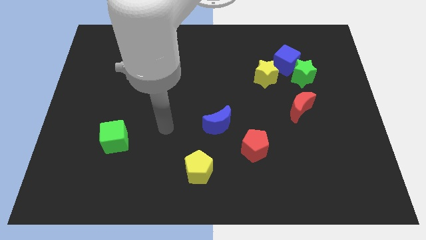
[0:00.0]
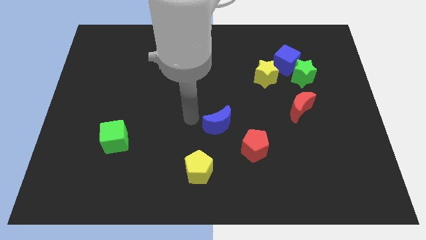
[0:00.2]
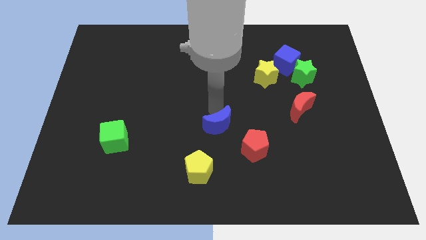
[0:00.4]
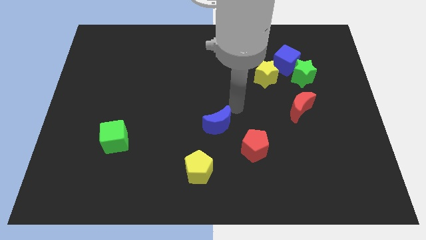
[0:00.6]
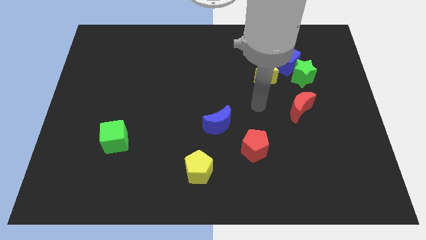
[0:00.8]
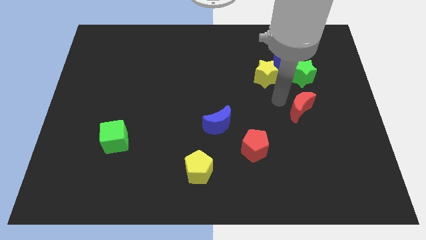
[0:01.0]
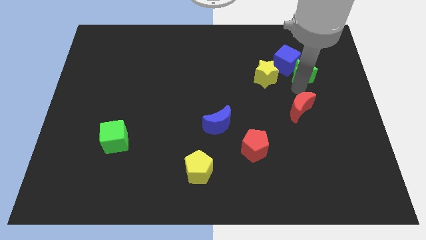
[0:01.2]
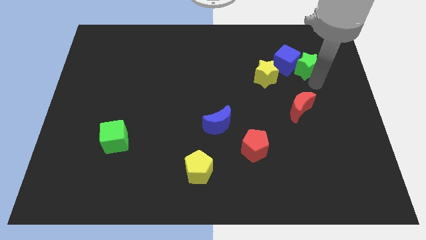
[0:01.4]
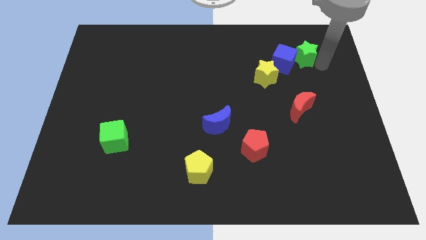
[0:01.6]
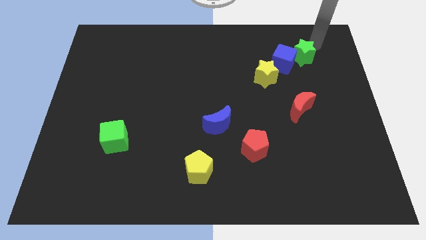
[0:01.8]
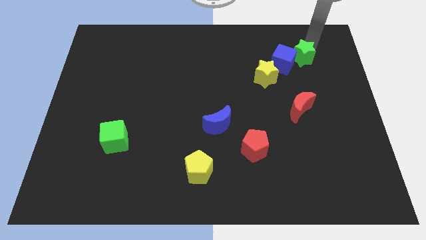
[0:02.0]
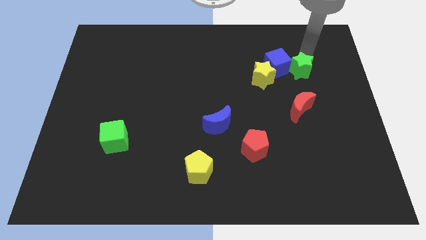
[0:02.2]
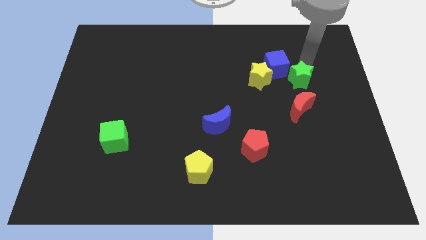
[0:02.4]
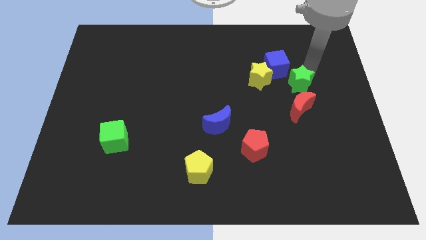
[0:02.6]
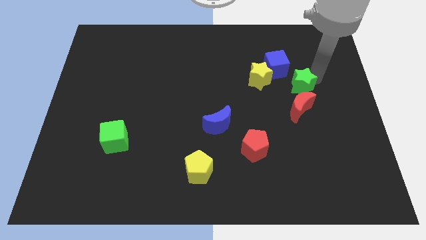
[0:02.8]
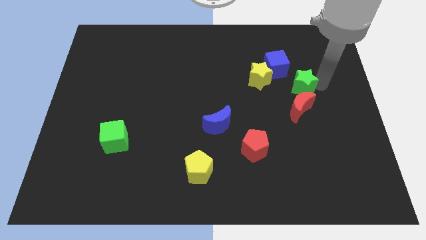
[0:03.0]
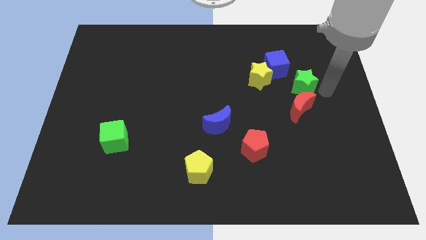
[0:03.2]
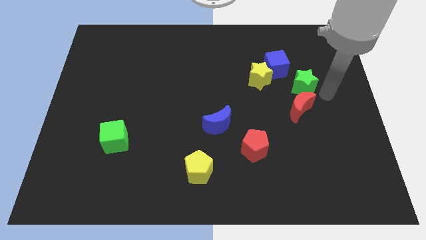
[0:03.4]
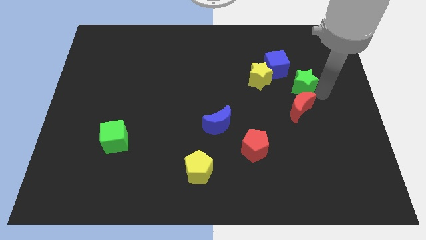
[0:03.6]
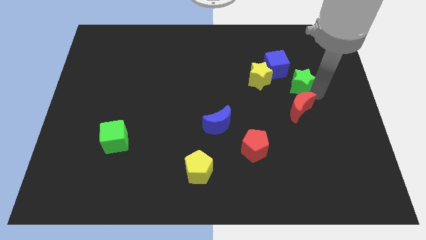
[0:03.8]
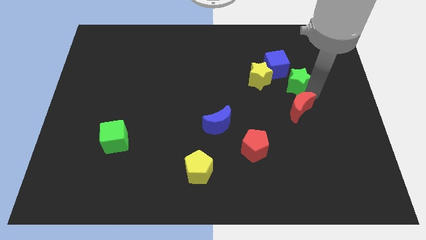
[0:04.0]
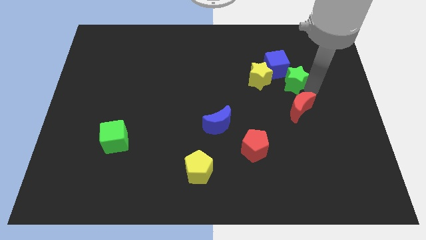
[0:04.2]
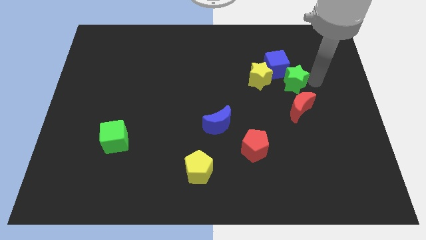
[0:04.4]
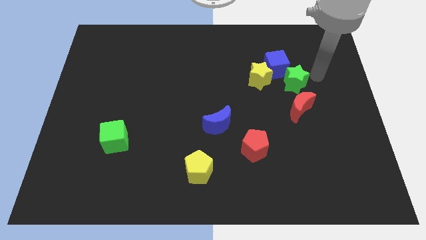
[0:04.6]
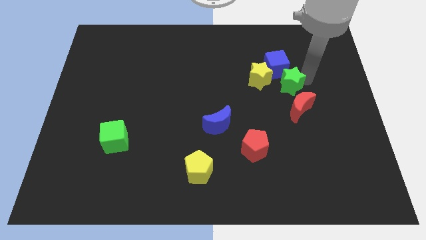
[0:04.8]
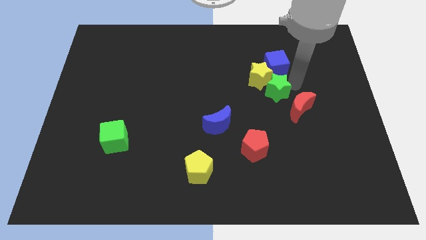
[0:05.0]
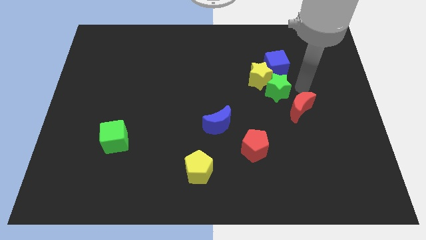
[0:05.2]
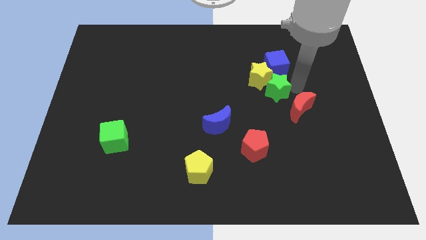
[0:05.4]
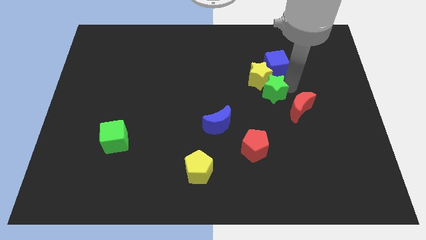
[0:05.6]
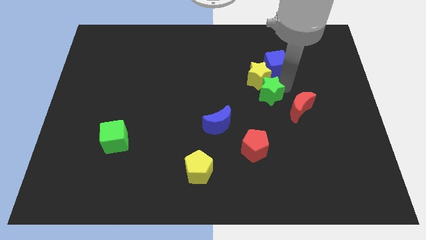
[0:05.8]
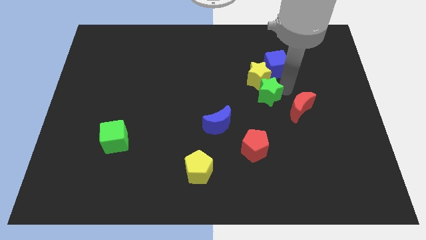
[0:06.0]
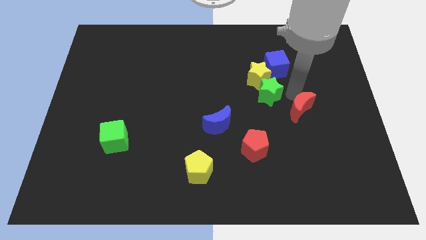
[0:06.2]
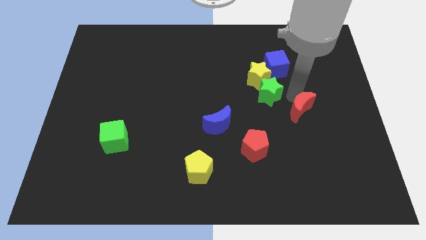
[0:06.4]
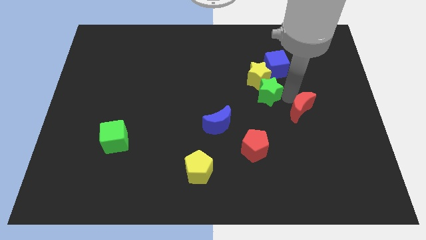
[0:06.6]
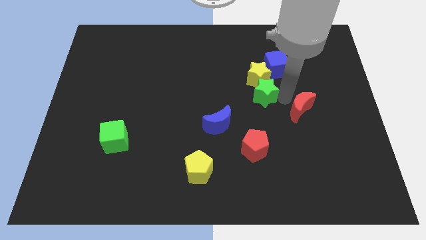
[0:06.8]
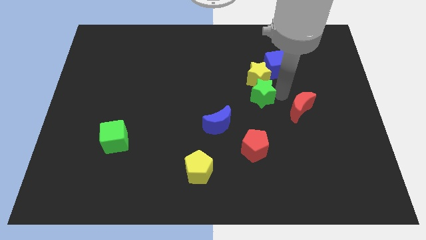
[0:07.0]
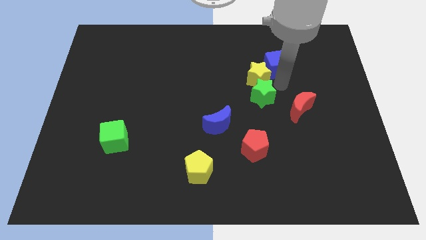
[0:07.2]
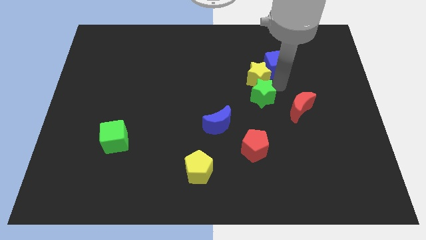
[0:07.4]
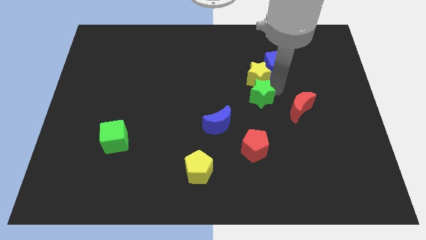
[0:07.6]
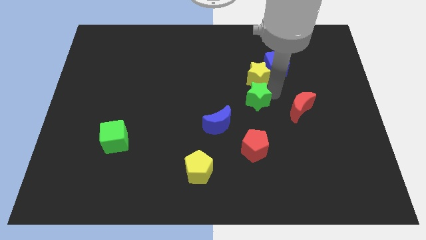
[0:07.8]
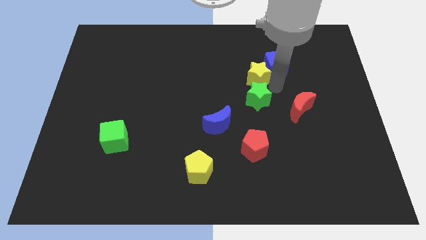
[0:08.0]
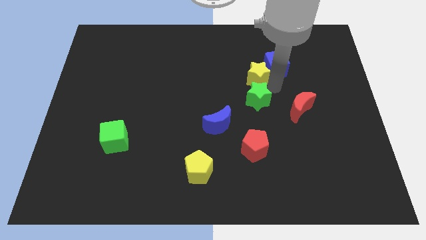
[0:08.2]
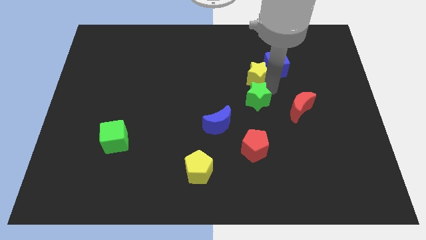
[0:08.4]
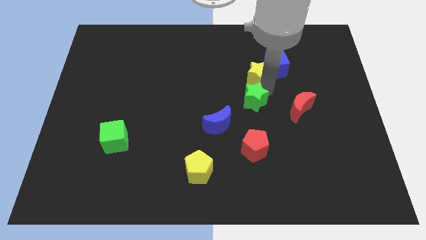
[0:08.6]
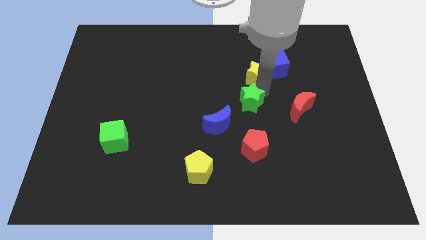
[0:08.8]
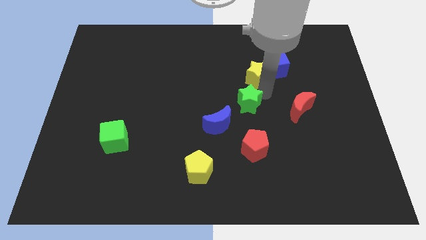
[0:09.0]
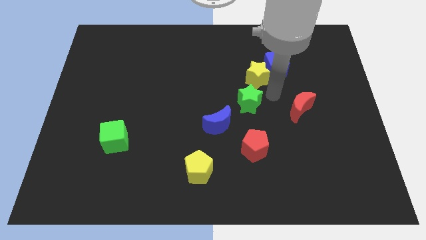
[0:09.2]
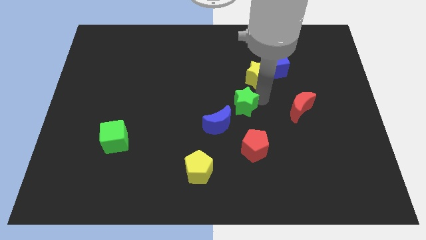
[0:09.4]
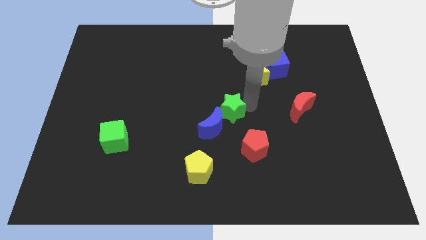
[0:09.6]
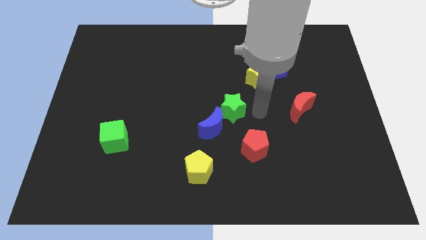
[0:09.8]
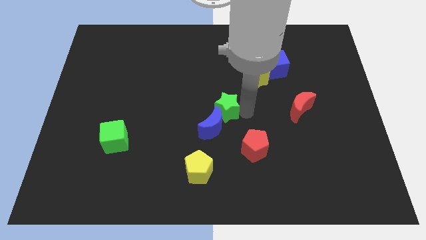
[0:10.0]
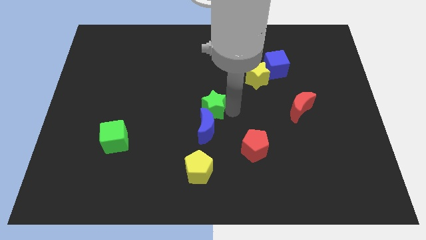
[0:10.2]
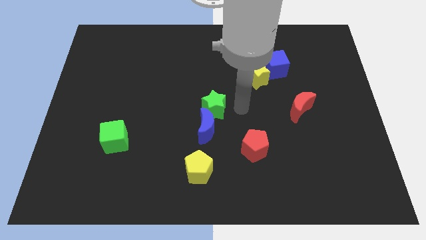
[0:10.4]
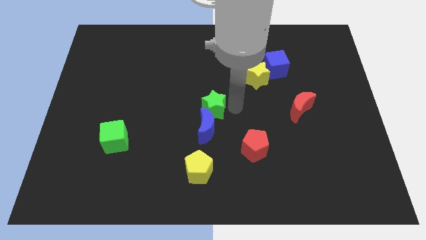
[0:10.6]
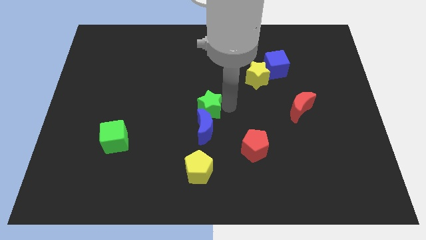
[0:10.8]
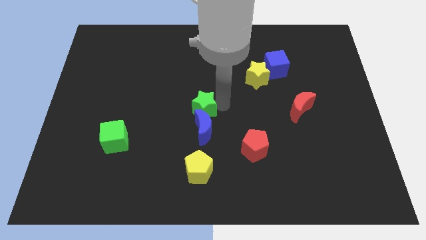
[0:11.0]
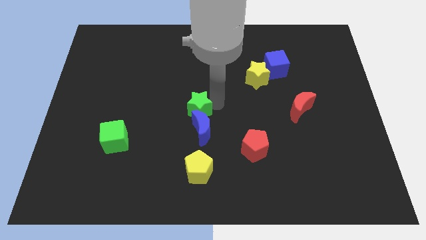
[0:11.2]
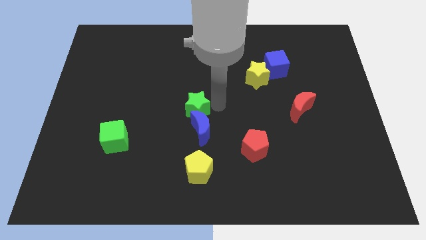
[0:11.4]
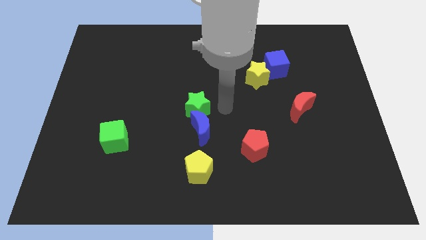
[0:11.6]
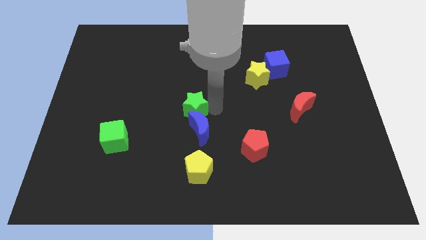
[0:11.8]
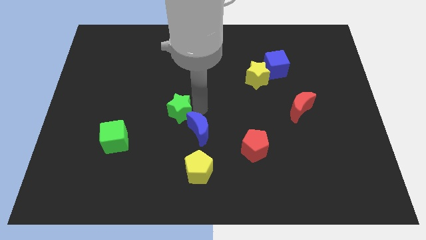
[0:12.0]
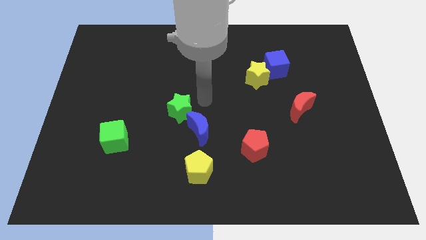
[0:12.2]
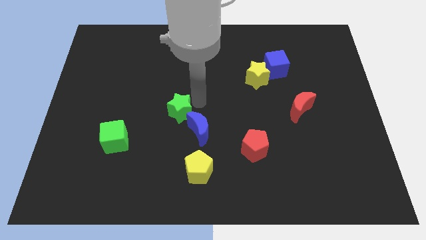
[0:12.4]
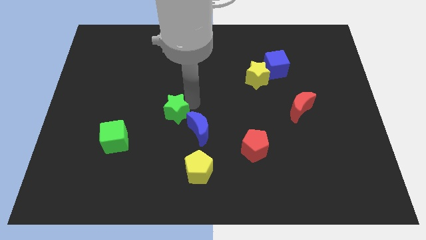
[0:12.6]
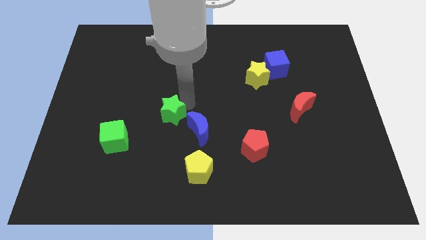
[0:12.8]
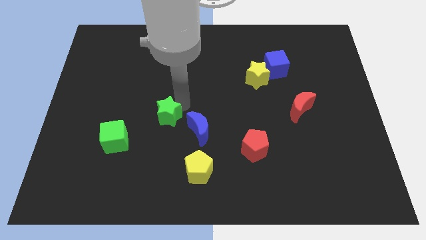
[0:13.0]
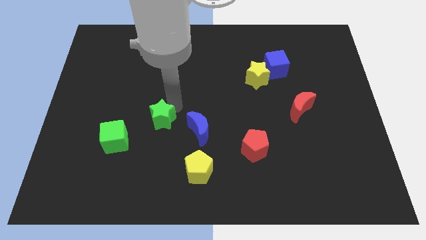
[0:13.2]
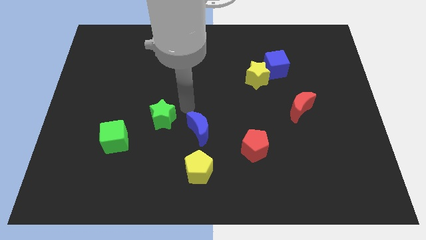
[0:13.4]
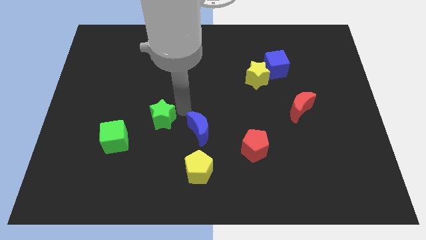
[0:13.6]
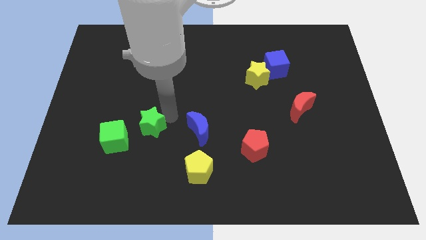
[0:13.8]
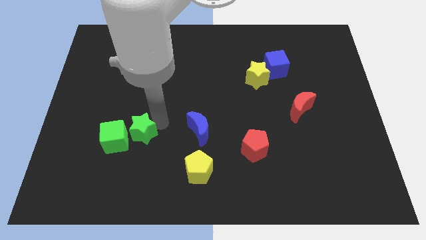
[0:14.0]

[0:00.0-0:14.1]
move the green star to the green cube
